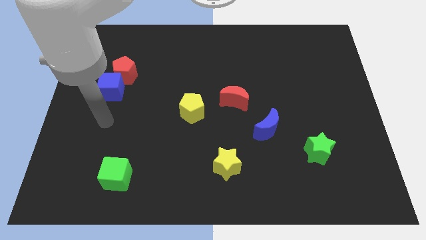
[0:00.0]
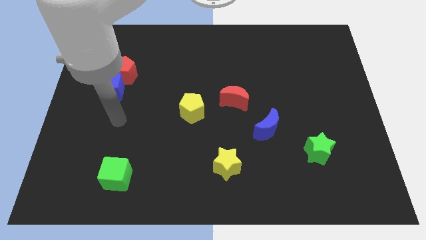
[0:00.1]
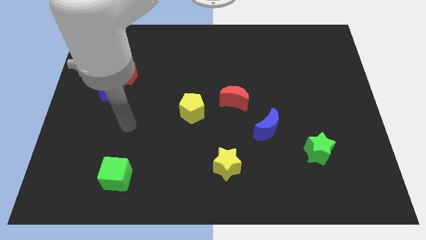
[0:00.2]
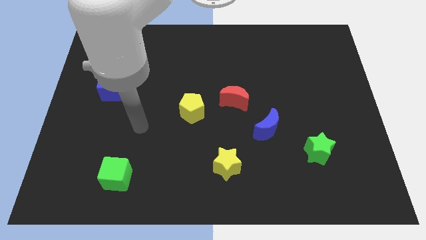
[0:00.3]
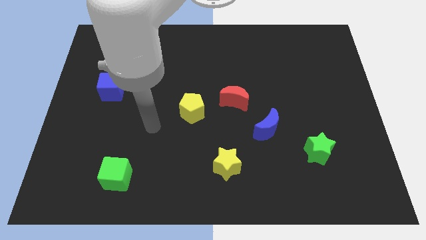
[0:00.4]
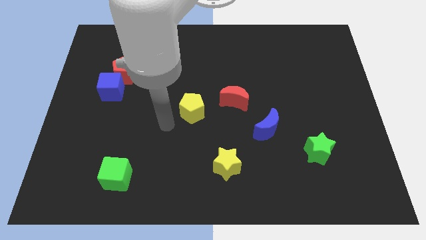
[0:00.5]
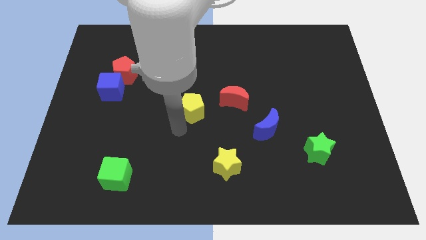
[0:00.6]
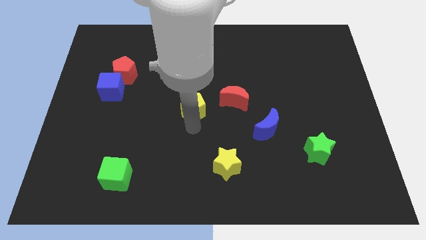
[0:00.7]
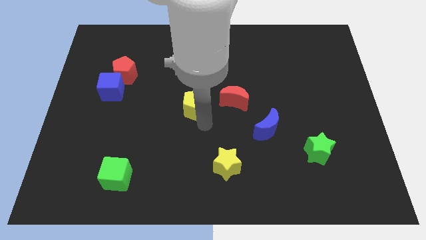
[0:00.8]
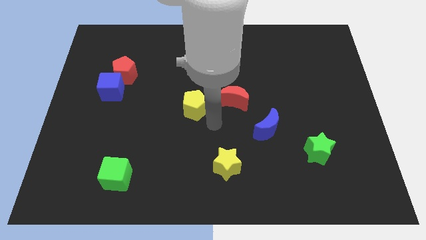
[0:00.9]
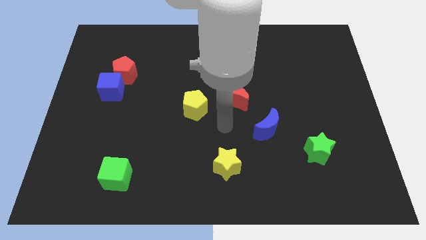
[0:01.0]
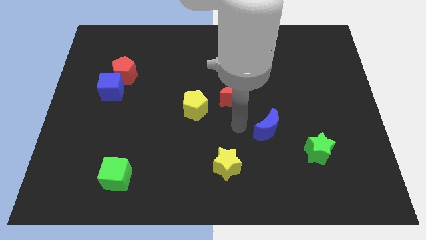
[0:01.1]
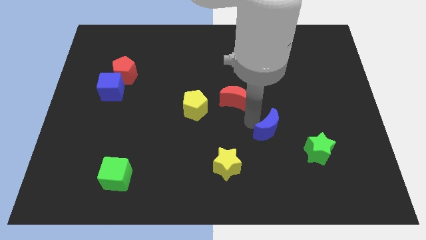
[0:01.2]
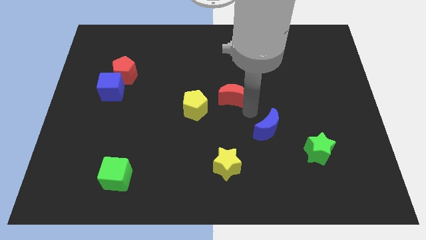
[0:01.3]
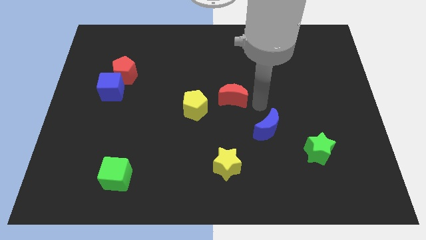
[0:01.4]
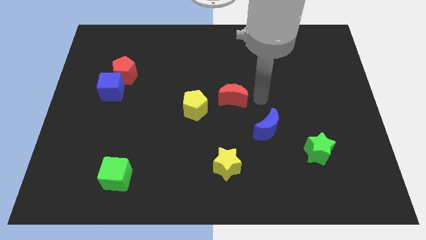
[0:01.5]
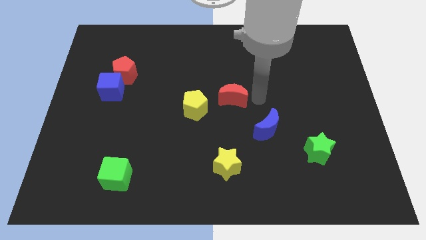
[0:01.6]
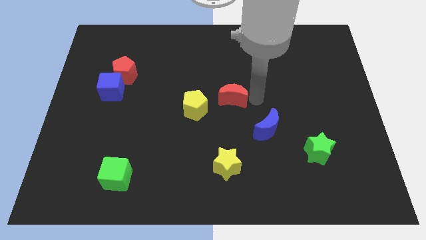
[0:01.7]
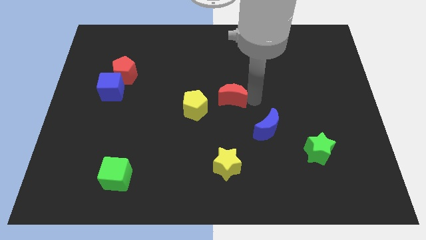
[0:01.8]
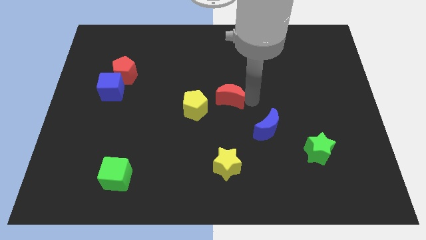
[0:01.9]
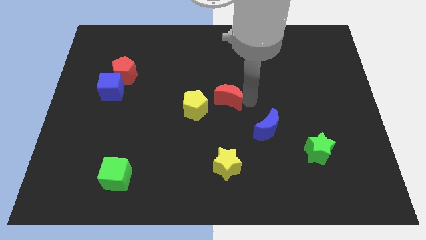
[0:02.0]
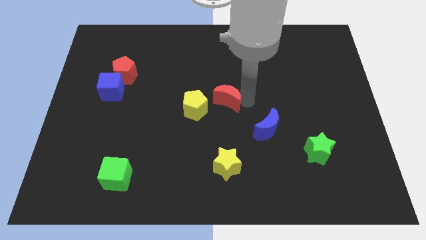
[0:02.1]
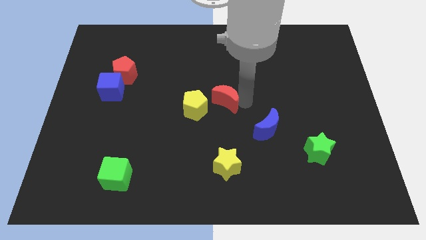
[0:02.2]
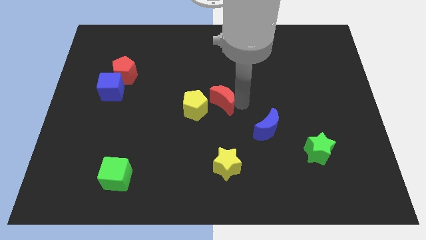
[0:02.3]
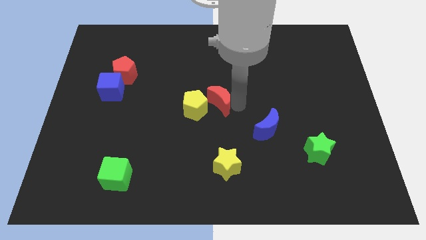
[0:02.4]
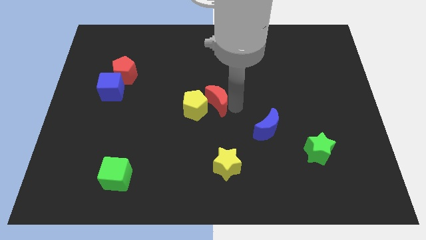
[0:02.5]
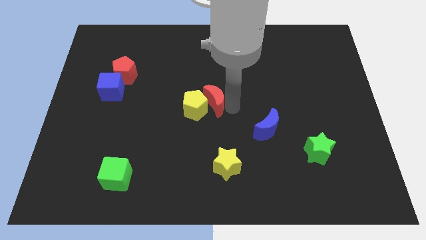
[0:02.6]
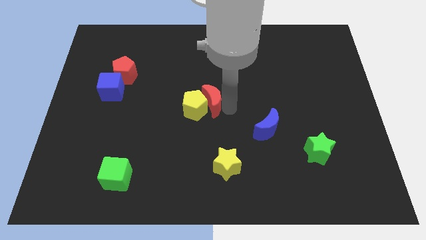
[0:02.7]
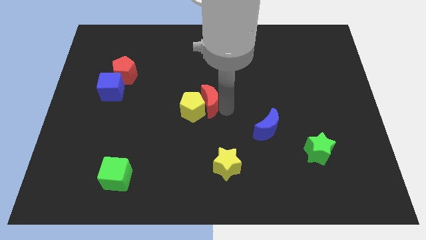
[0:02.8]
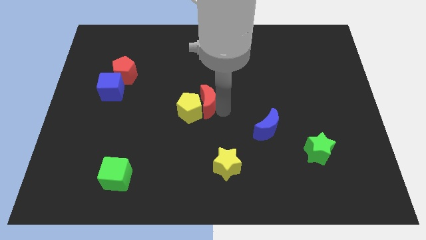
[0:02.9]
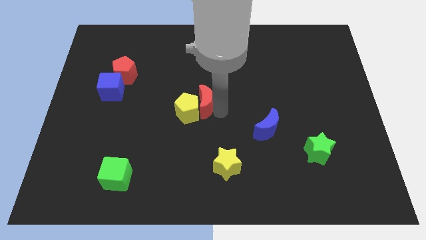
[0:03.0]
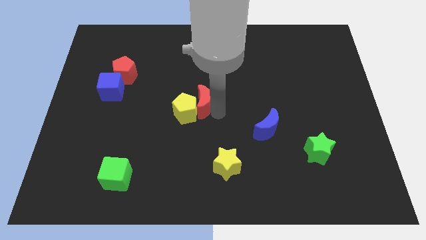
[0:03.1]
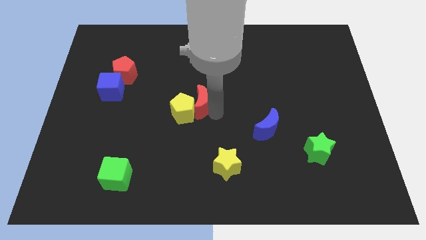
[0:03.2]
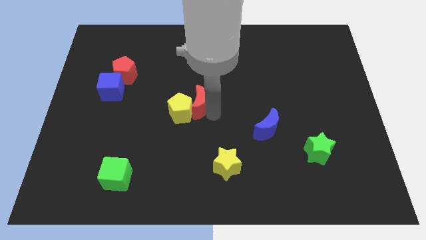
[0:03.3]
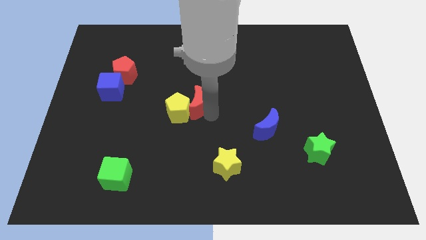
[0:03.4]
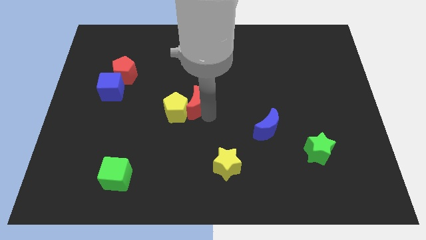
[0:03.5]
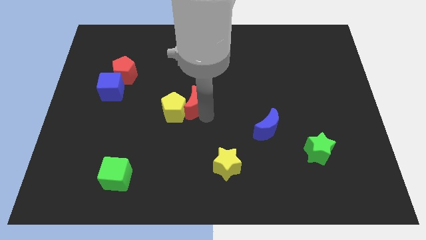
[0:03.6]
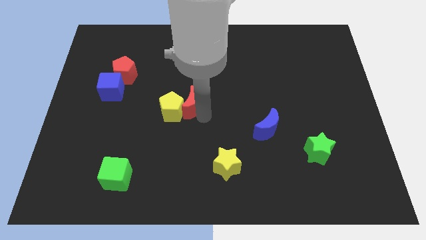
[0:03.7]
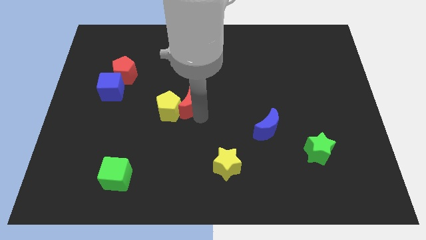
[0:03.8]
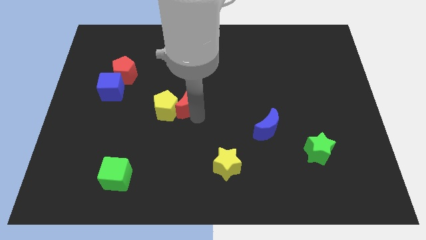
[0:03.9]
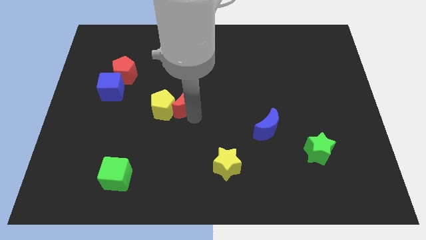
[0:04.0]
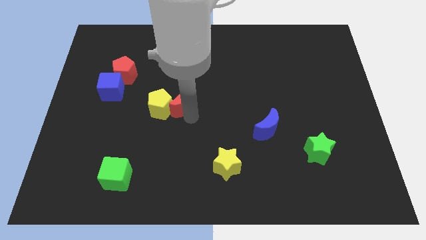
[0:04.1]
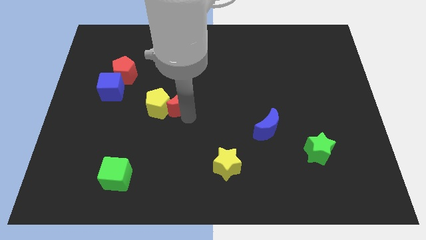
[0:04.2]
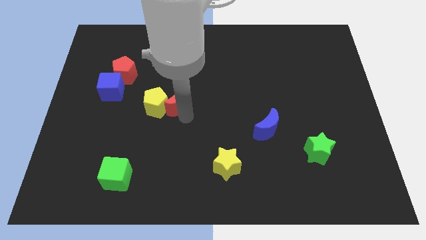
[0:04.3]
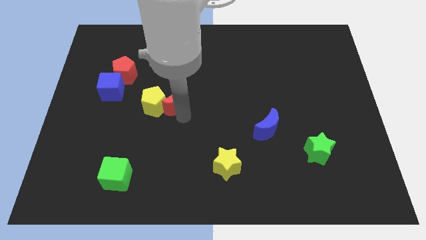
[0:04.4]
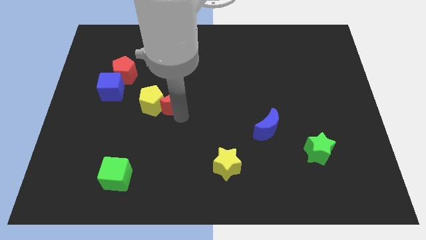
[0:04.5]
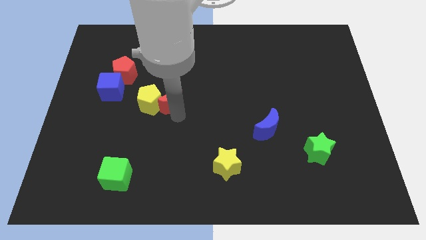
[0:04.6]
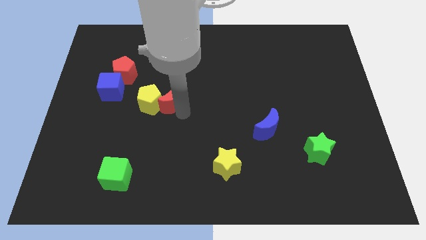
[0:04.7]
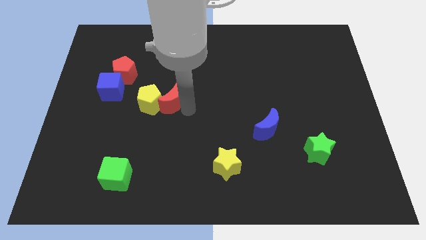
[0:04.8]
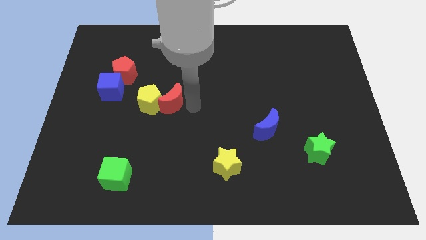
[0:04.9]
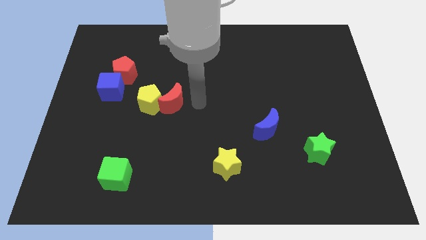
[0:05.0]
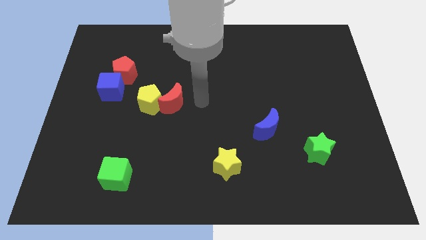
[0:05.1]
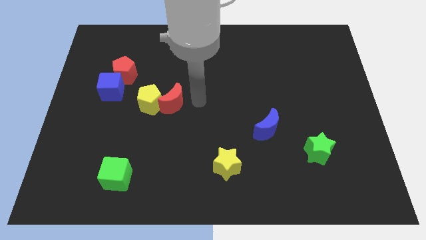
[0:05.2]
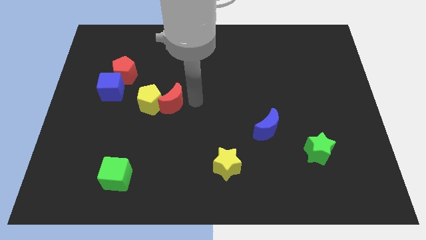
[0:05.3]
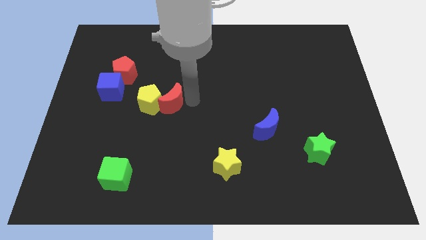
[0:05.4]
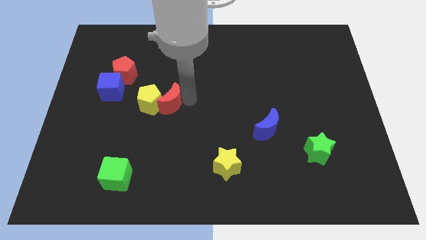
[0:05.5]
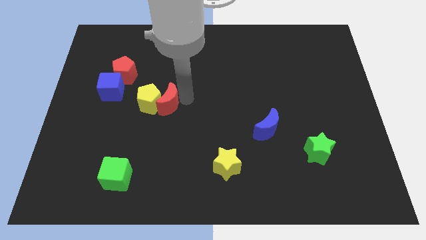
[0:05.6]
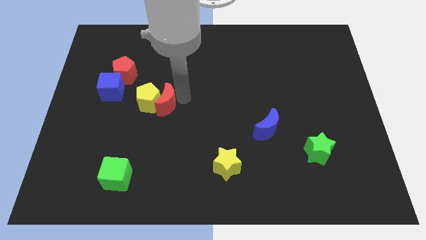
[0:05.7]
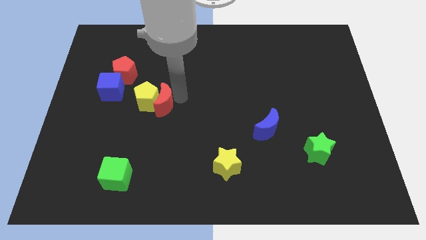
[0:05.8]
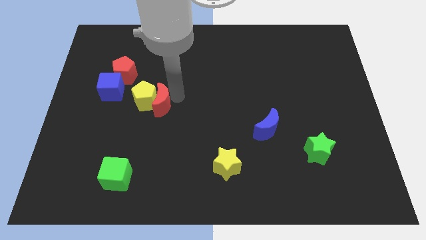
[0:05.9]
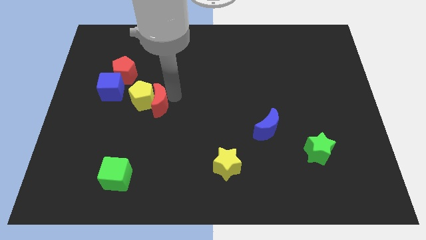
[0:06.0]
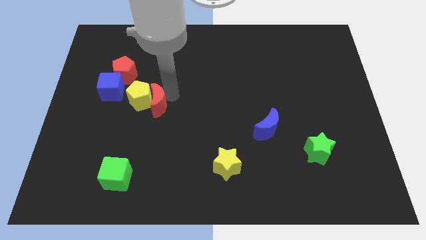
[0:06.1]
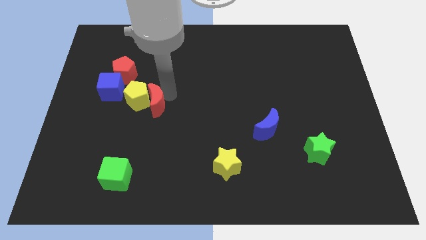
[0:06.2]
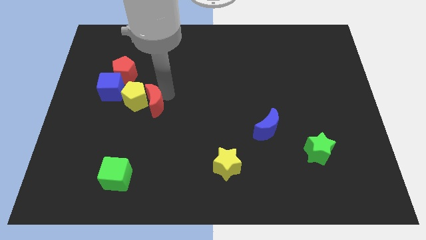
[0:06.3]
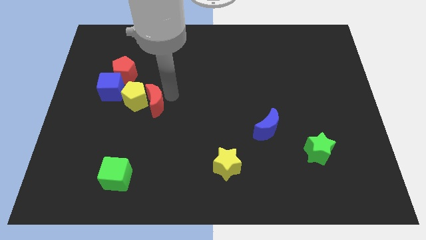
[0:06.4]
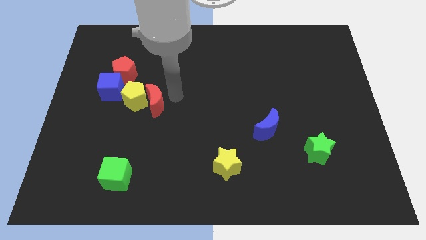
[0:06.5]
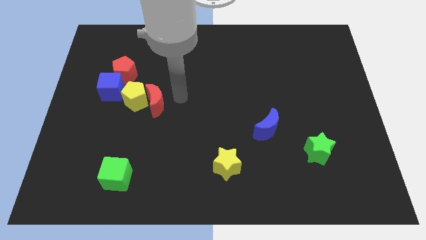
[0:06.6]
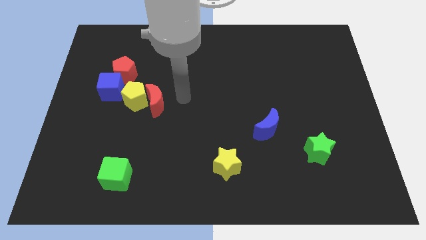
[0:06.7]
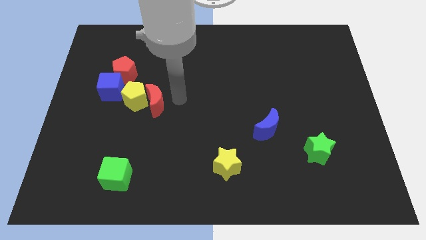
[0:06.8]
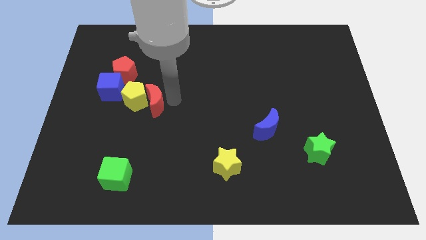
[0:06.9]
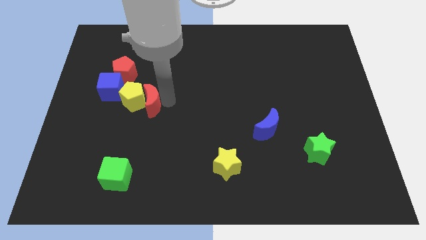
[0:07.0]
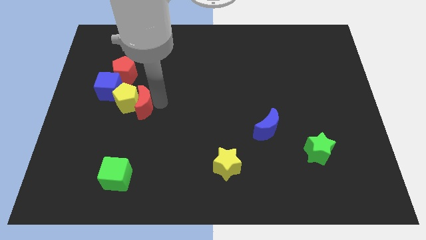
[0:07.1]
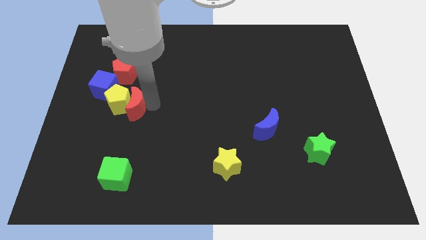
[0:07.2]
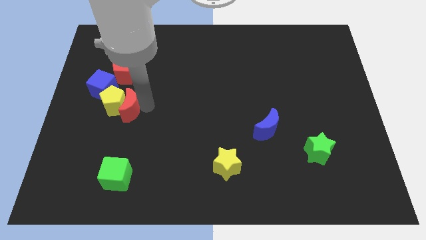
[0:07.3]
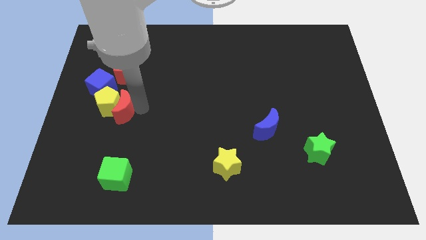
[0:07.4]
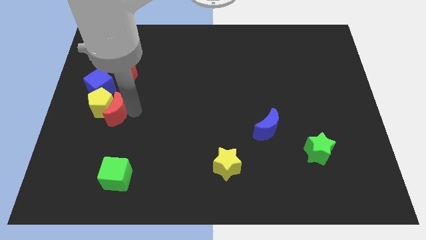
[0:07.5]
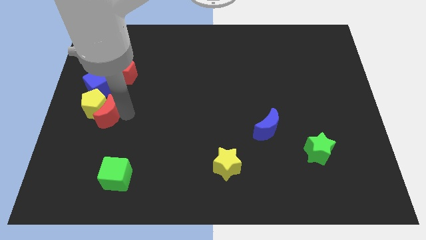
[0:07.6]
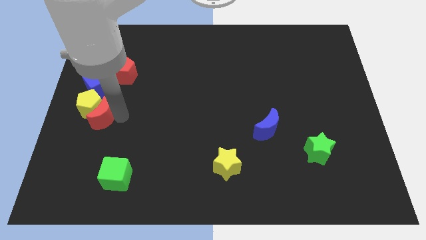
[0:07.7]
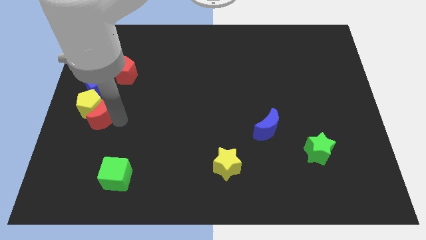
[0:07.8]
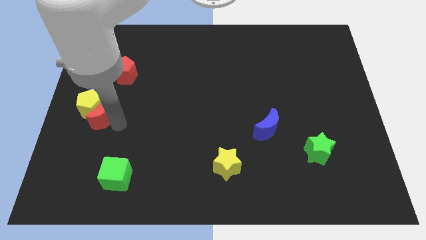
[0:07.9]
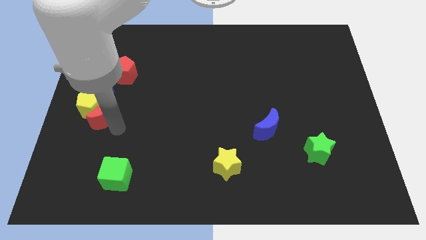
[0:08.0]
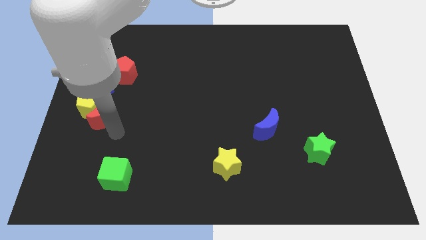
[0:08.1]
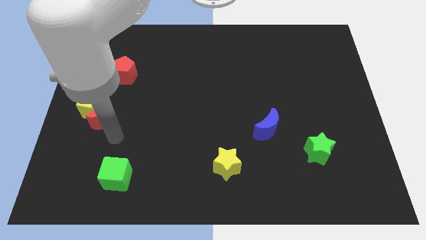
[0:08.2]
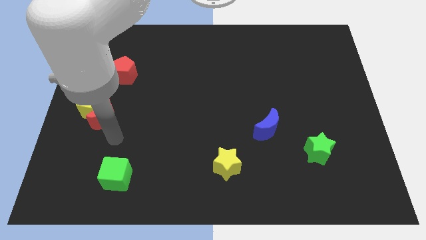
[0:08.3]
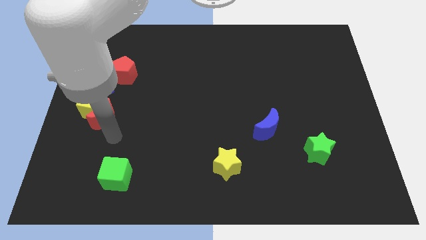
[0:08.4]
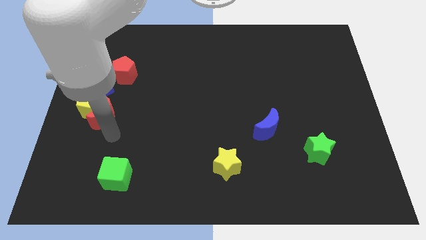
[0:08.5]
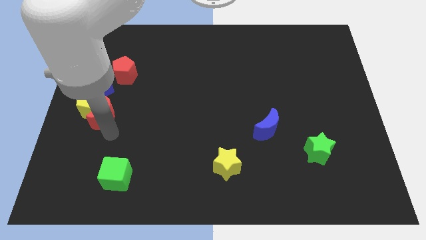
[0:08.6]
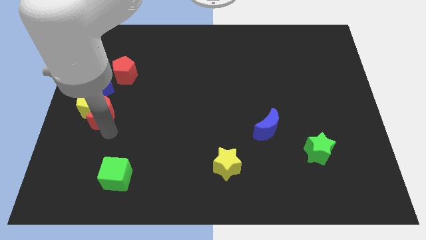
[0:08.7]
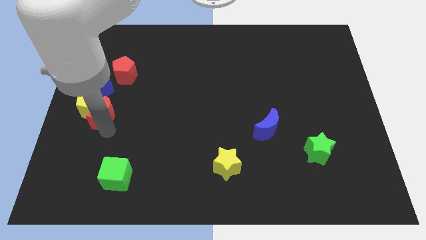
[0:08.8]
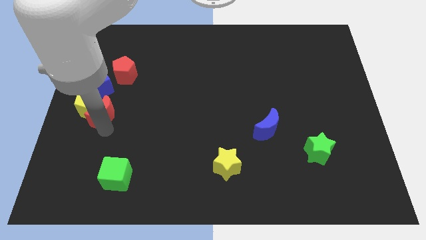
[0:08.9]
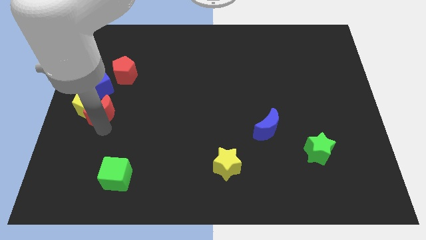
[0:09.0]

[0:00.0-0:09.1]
push the red moon to the left side of the board
